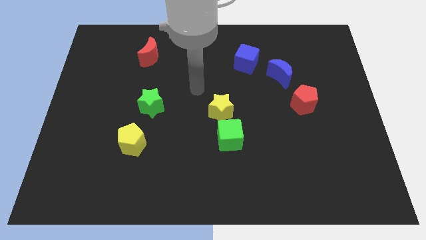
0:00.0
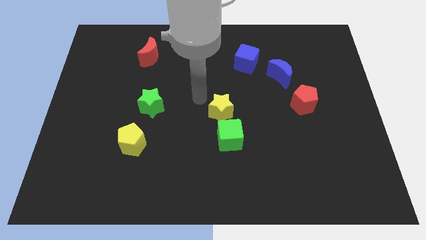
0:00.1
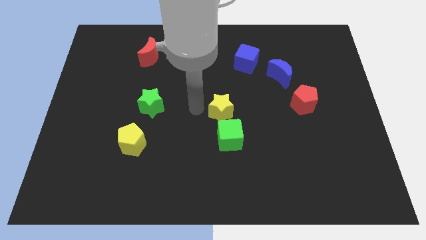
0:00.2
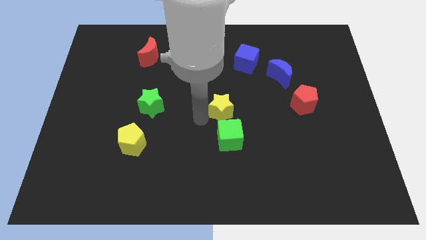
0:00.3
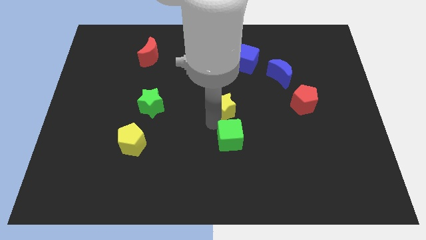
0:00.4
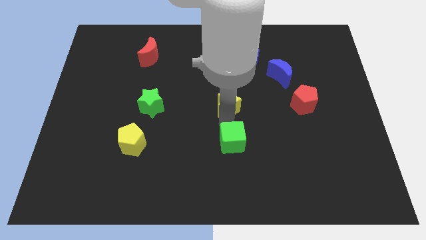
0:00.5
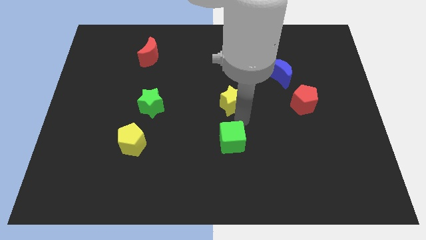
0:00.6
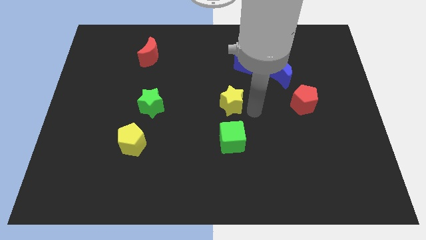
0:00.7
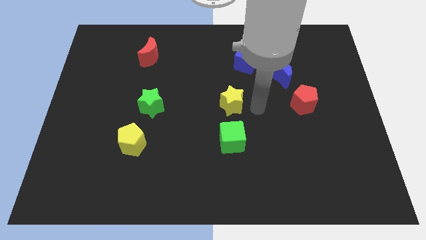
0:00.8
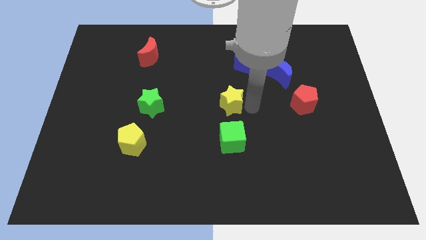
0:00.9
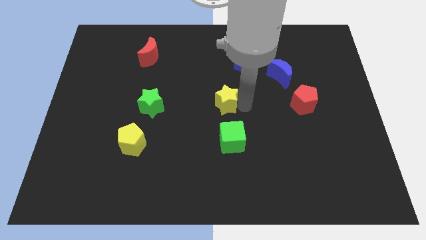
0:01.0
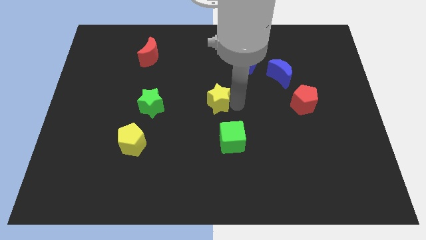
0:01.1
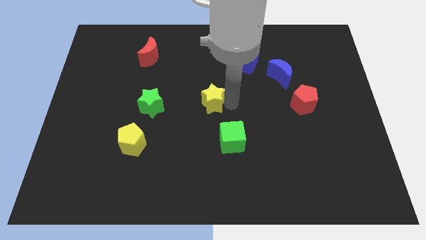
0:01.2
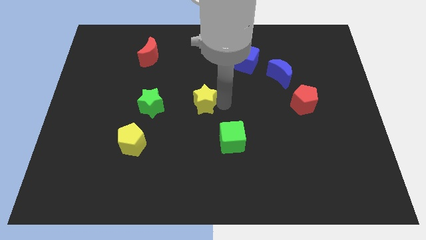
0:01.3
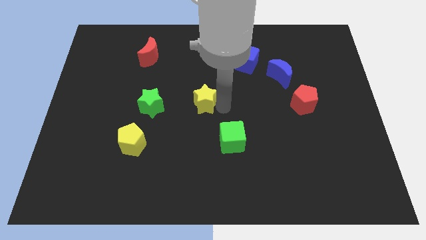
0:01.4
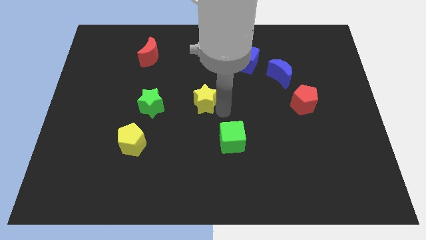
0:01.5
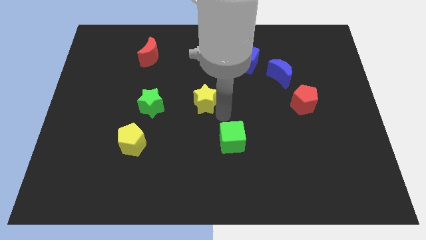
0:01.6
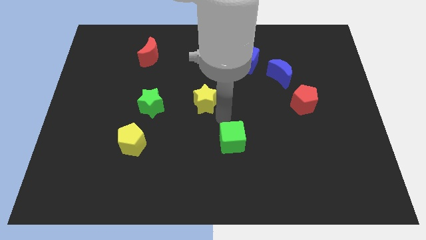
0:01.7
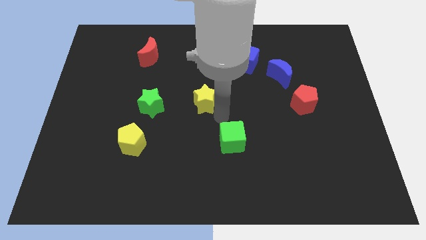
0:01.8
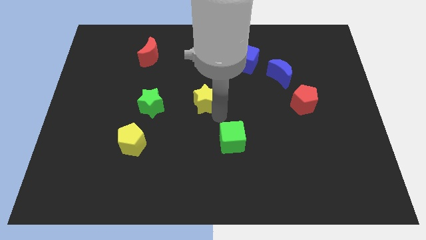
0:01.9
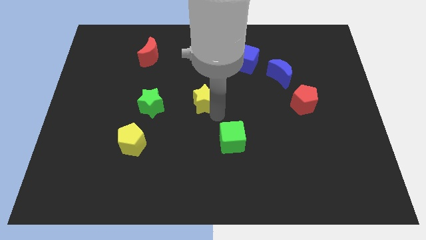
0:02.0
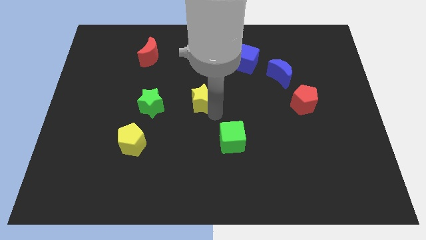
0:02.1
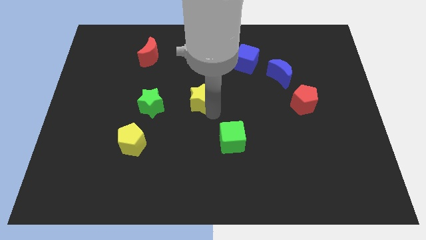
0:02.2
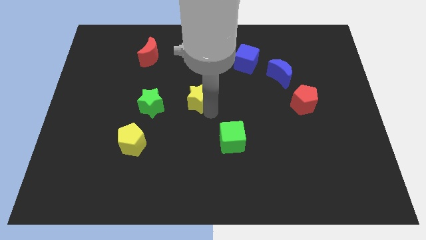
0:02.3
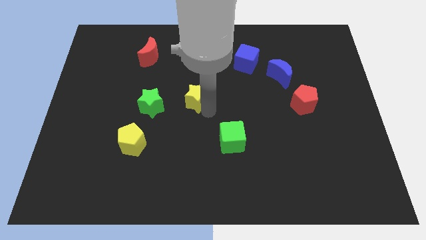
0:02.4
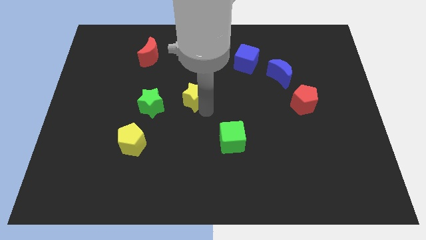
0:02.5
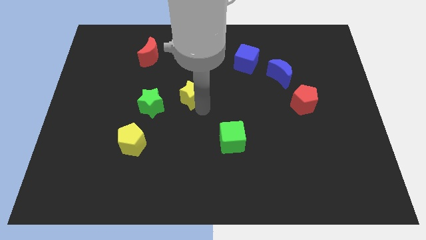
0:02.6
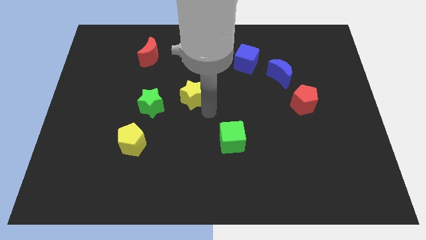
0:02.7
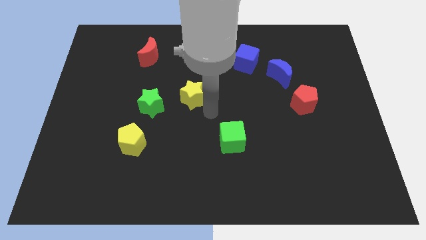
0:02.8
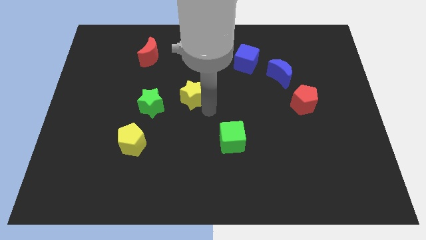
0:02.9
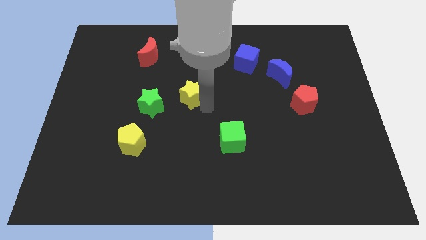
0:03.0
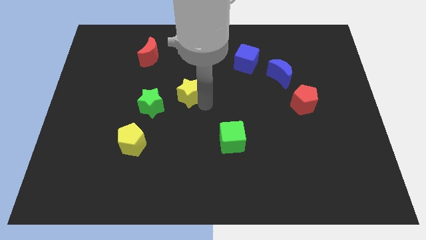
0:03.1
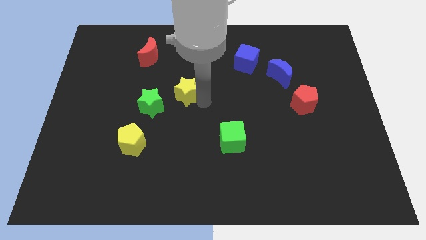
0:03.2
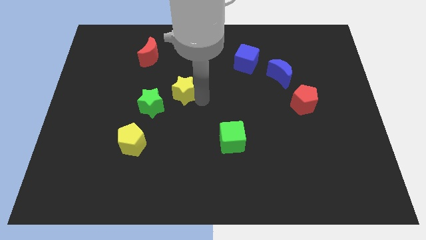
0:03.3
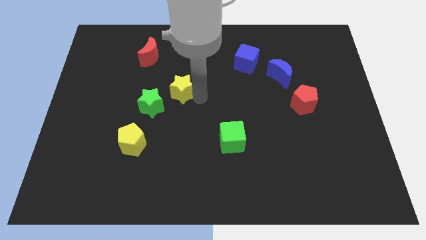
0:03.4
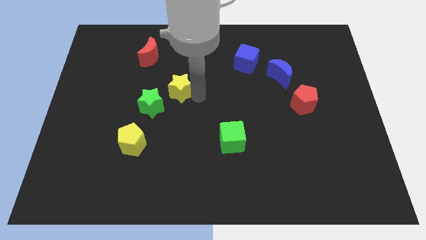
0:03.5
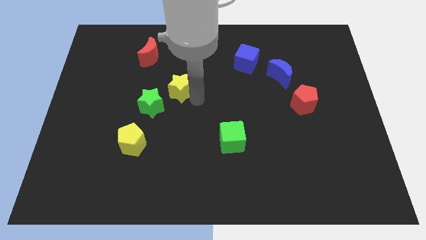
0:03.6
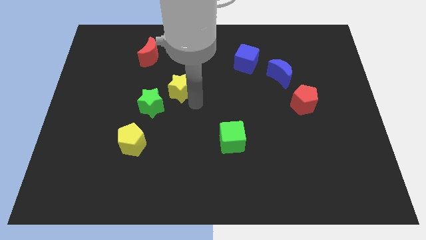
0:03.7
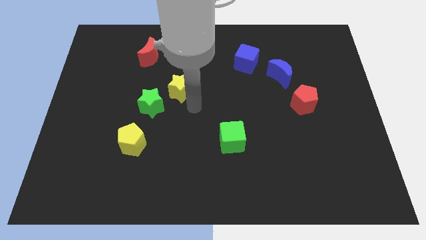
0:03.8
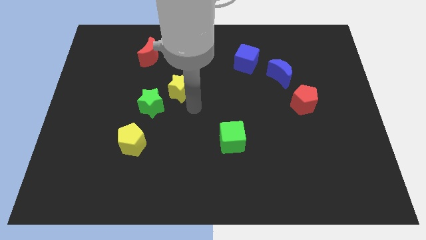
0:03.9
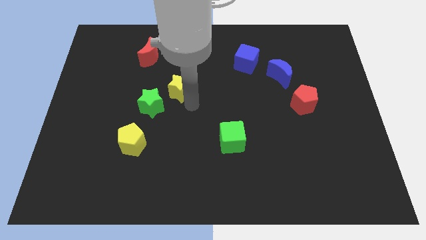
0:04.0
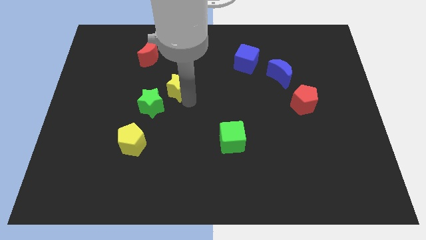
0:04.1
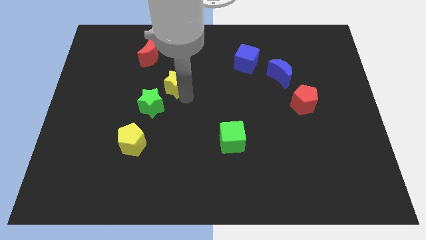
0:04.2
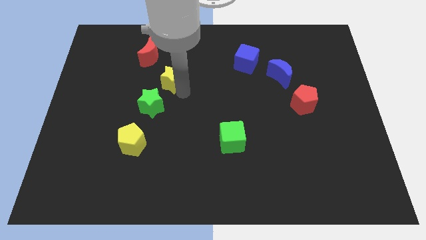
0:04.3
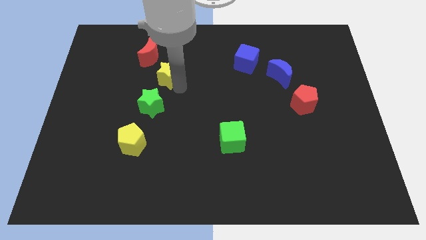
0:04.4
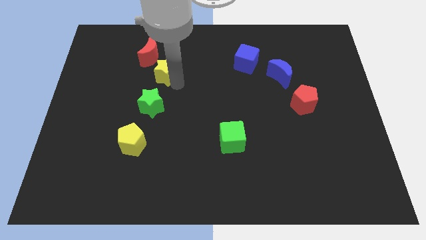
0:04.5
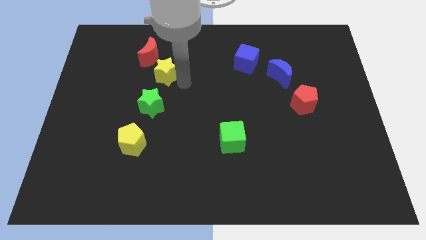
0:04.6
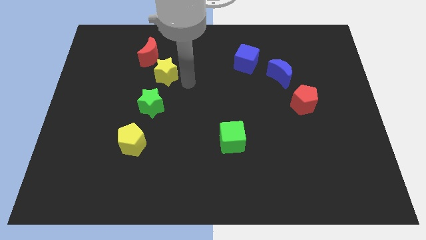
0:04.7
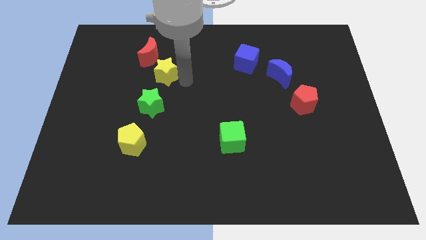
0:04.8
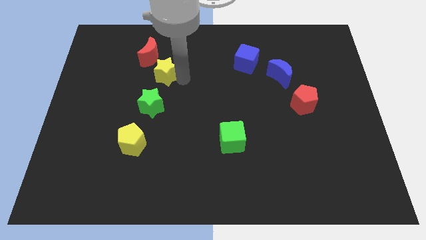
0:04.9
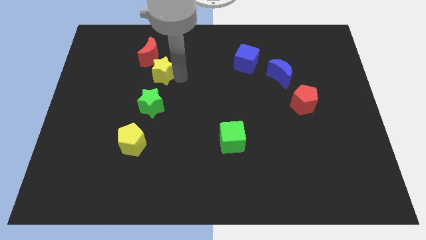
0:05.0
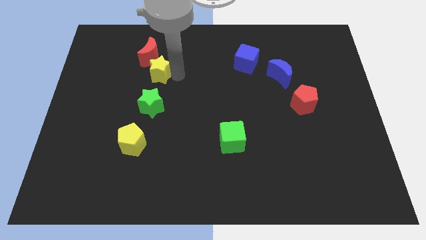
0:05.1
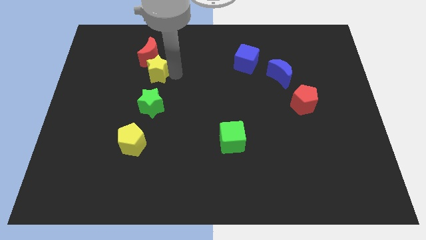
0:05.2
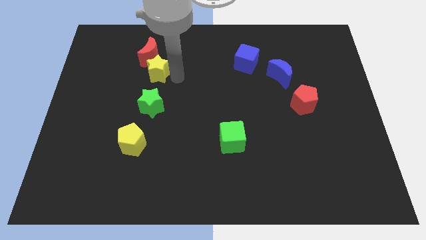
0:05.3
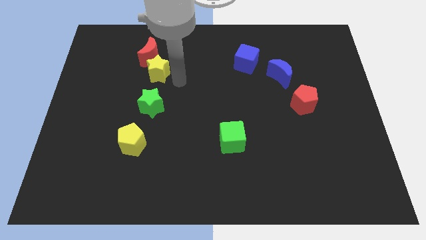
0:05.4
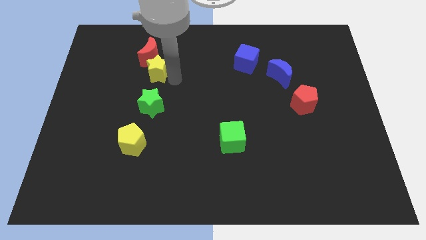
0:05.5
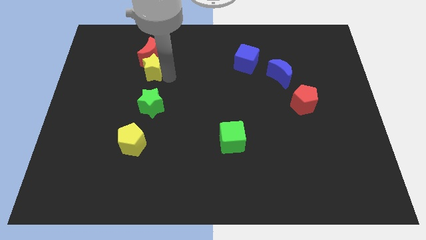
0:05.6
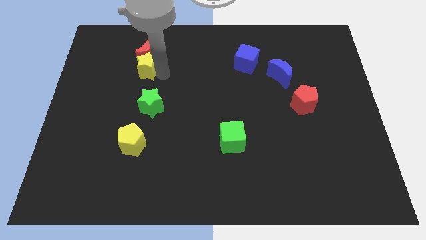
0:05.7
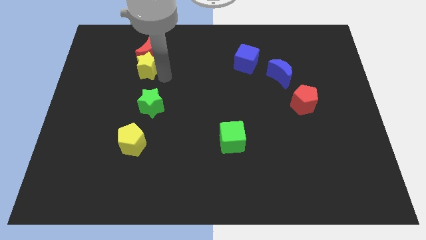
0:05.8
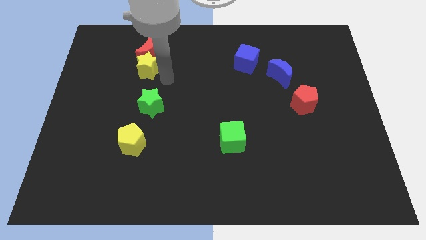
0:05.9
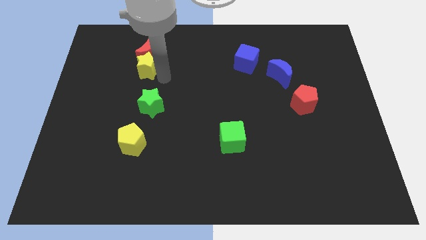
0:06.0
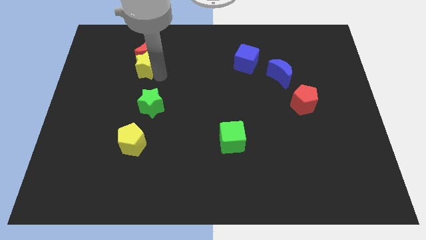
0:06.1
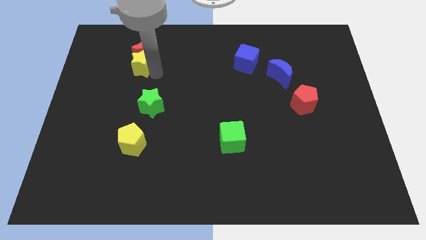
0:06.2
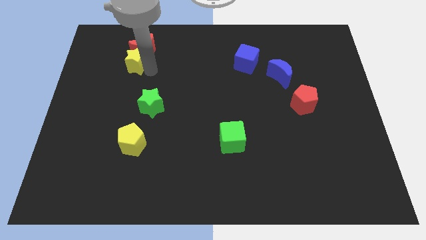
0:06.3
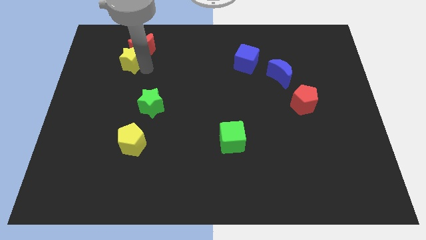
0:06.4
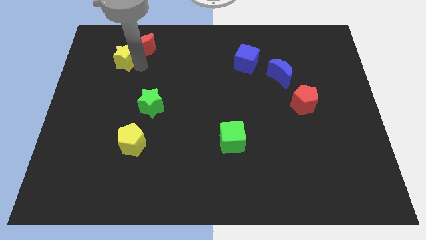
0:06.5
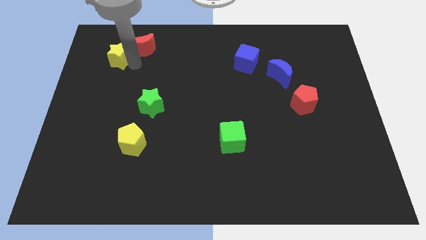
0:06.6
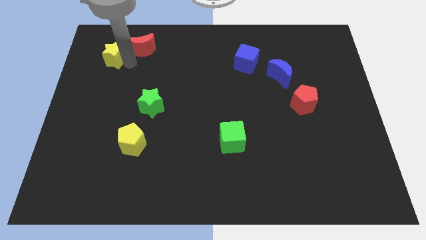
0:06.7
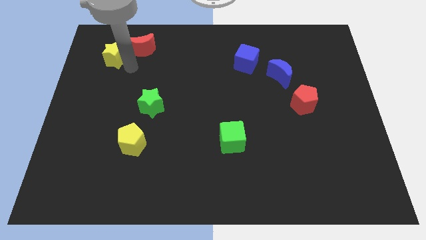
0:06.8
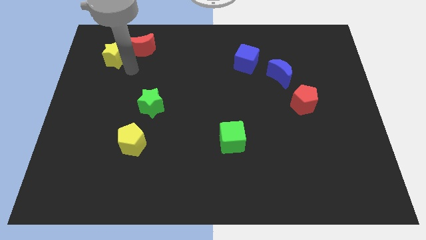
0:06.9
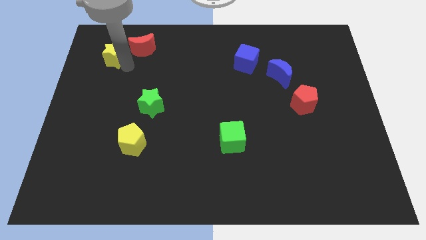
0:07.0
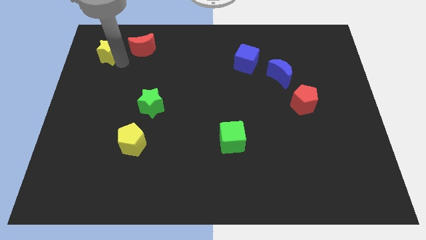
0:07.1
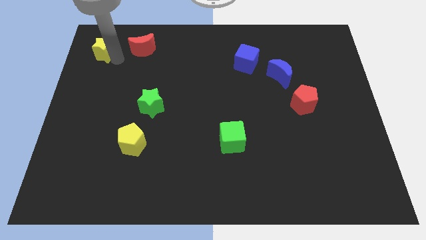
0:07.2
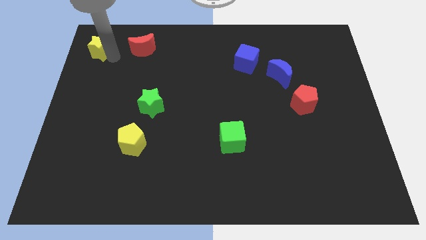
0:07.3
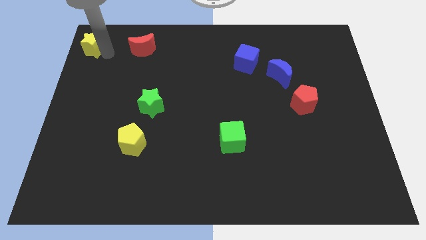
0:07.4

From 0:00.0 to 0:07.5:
move the yellow star to the top left corner
